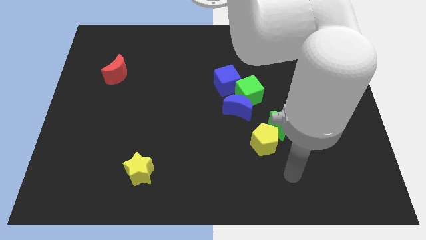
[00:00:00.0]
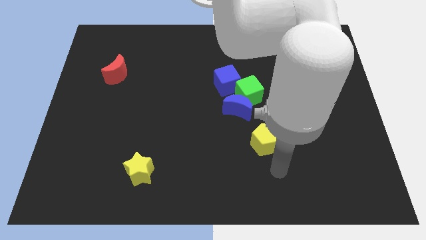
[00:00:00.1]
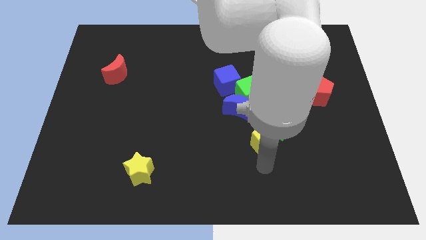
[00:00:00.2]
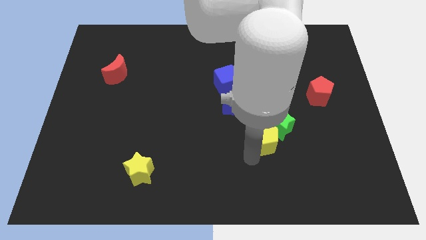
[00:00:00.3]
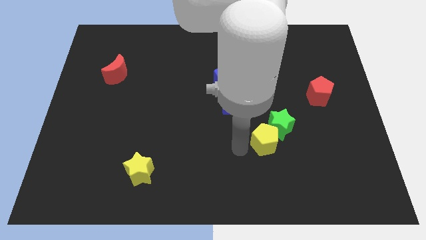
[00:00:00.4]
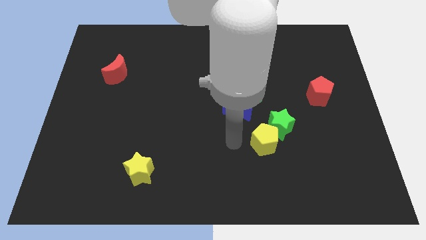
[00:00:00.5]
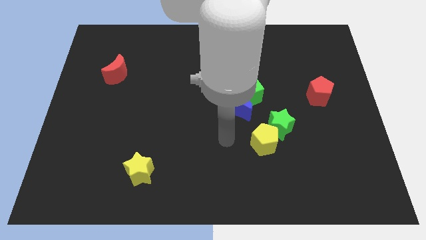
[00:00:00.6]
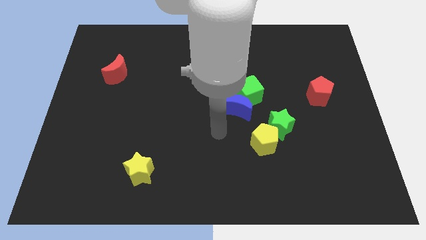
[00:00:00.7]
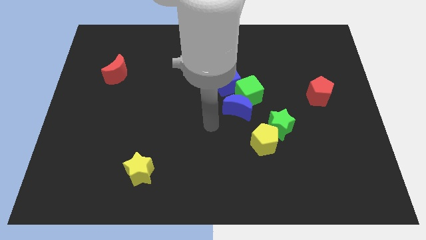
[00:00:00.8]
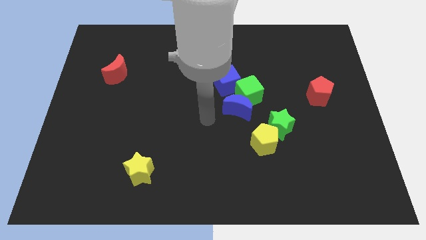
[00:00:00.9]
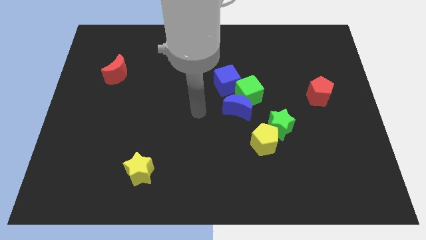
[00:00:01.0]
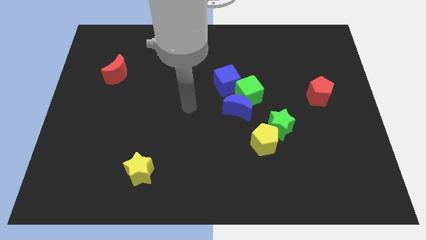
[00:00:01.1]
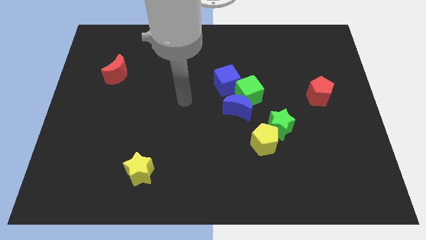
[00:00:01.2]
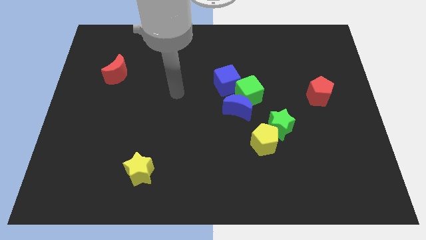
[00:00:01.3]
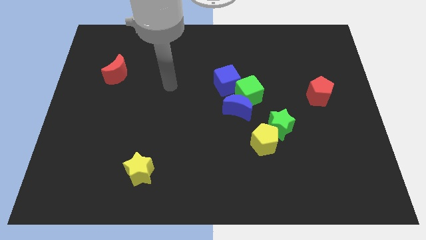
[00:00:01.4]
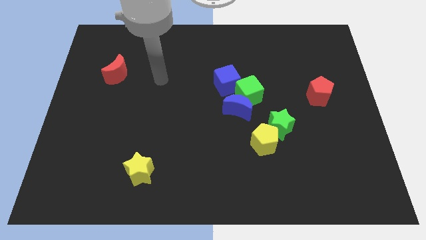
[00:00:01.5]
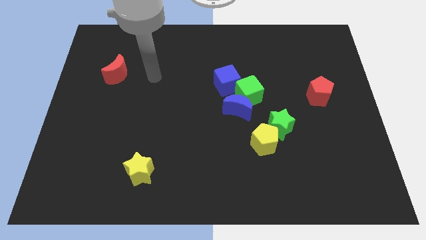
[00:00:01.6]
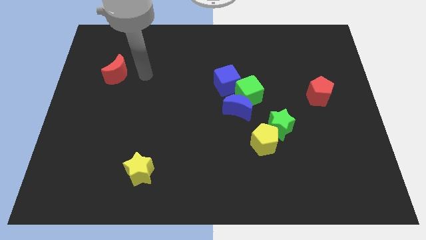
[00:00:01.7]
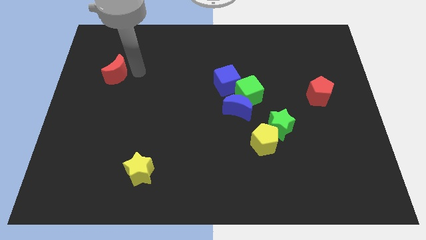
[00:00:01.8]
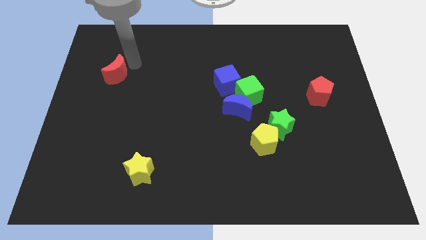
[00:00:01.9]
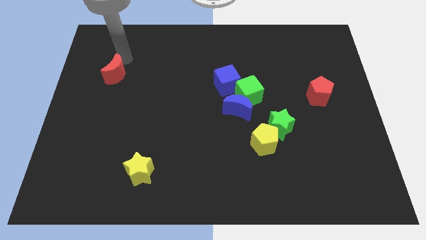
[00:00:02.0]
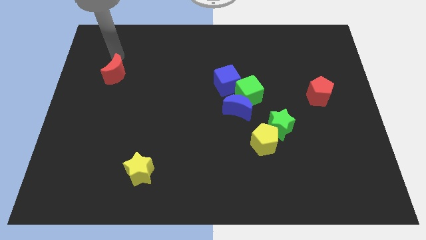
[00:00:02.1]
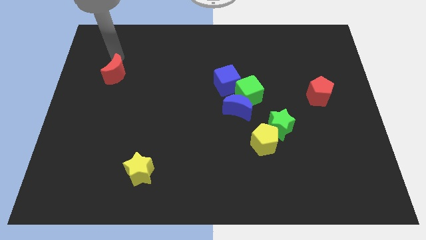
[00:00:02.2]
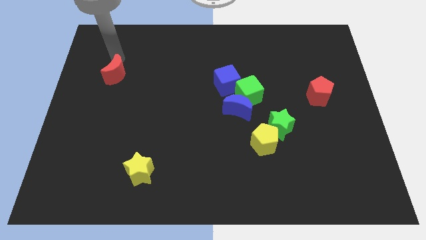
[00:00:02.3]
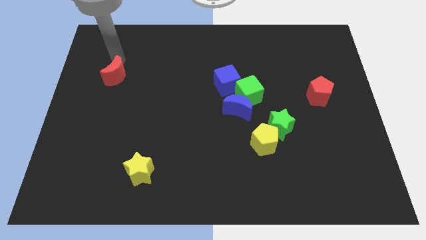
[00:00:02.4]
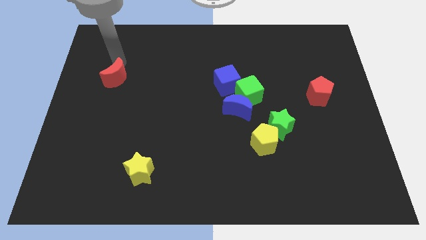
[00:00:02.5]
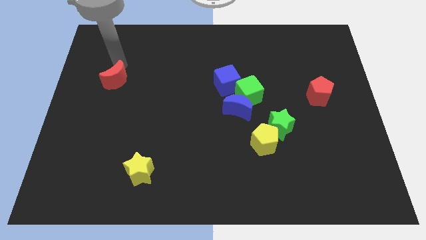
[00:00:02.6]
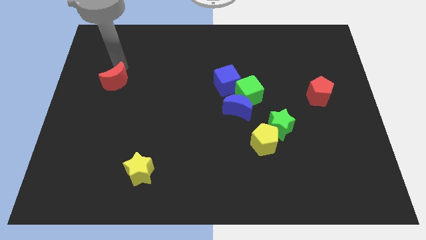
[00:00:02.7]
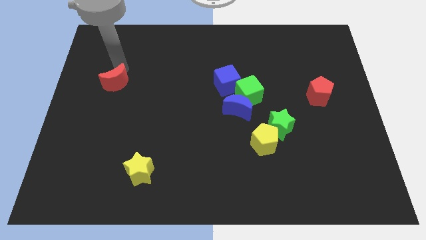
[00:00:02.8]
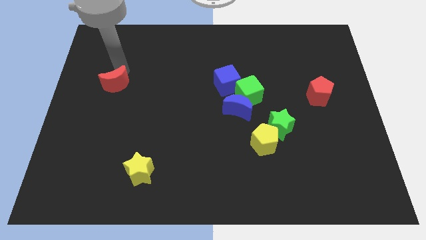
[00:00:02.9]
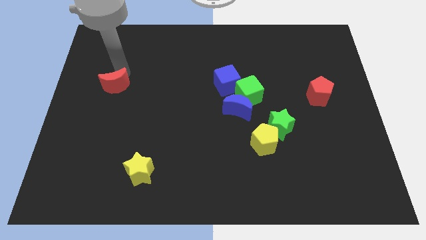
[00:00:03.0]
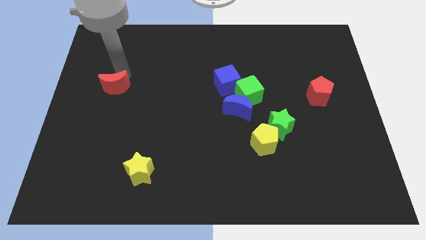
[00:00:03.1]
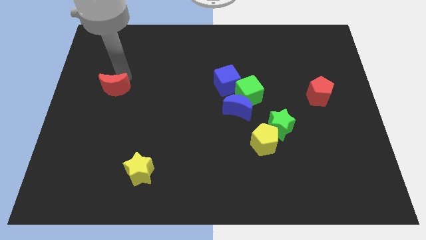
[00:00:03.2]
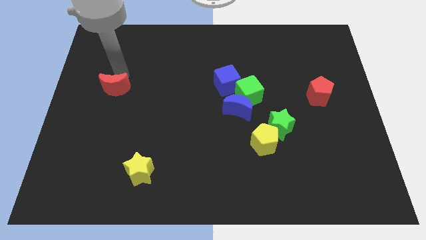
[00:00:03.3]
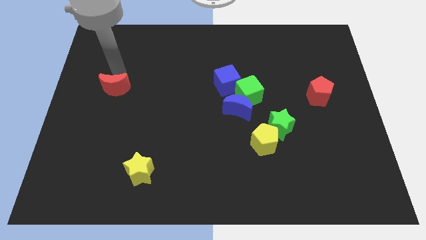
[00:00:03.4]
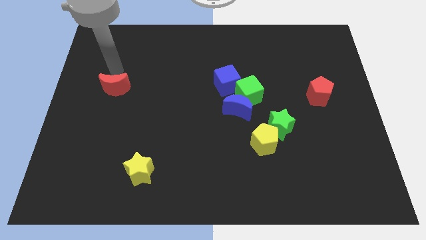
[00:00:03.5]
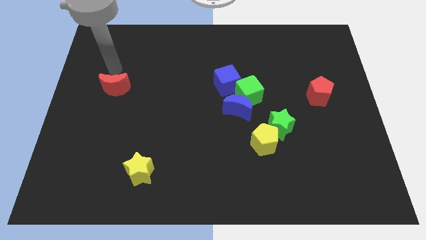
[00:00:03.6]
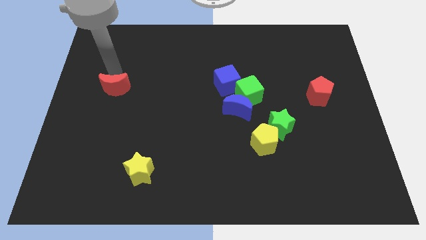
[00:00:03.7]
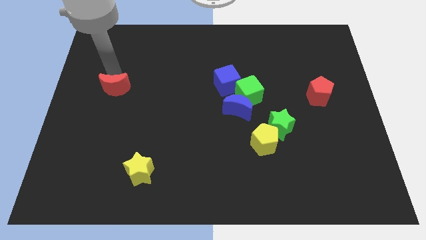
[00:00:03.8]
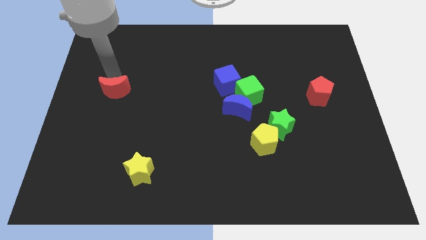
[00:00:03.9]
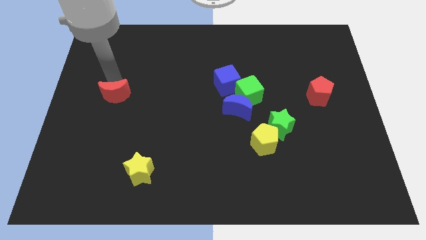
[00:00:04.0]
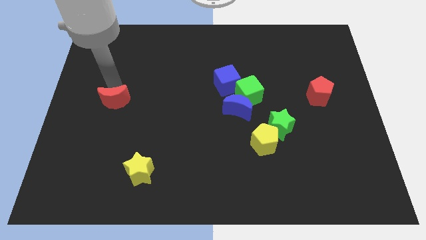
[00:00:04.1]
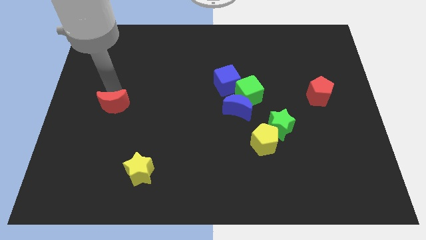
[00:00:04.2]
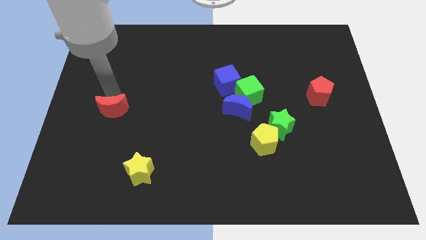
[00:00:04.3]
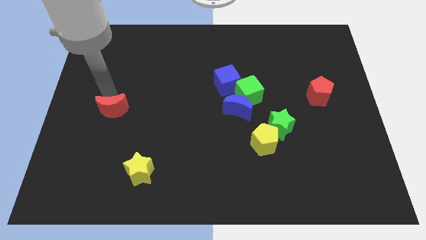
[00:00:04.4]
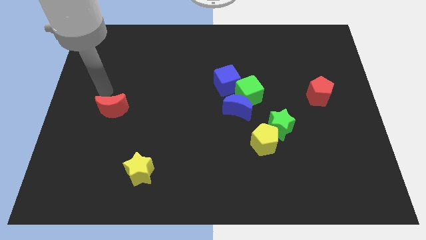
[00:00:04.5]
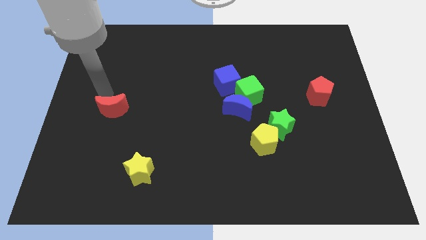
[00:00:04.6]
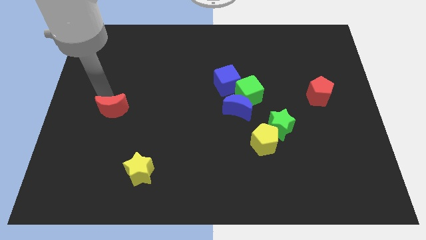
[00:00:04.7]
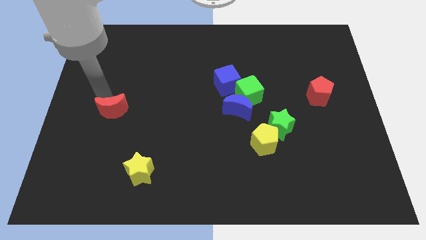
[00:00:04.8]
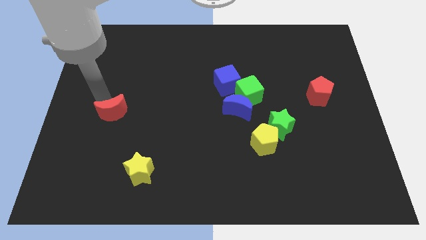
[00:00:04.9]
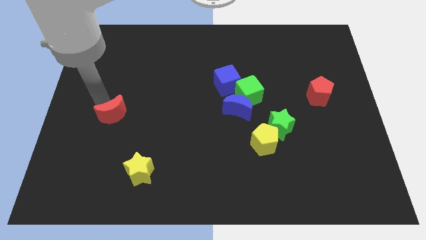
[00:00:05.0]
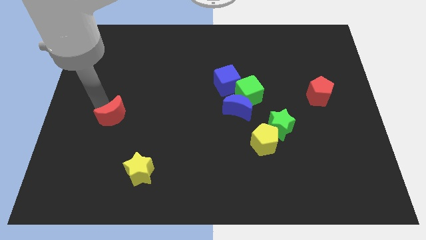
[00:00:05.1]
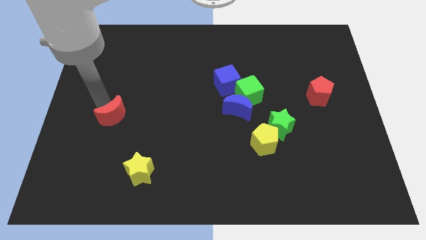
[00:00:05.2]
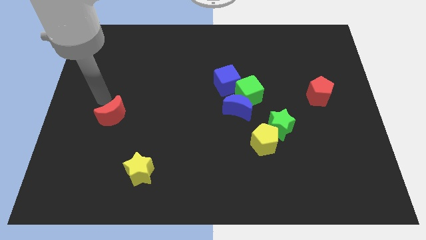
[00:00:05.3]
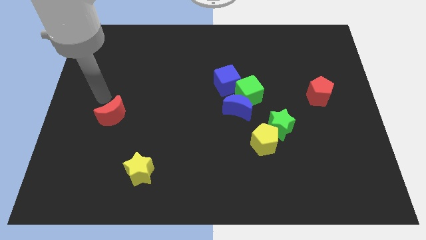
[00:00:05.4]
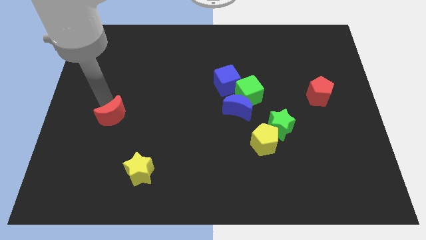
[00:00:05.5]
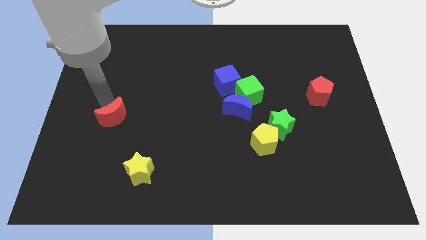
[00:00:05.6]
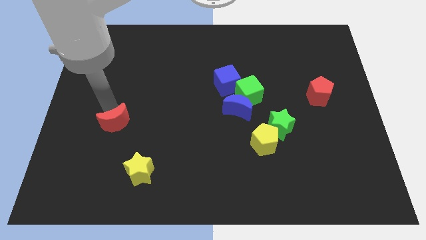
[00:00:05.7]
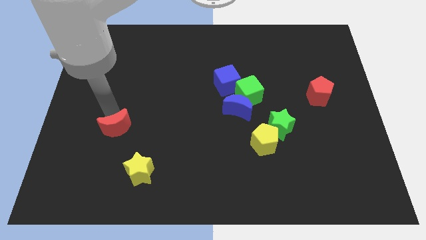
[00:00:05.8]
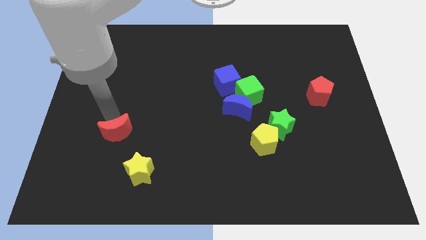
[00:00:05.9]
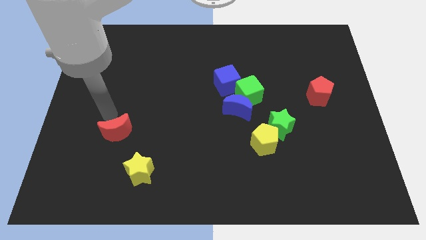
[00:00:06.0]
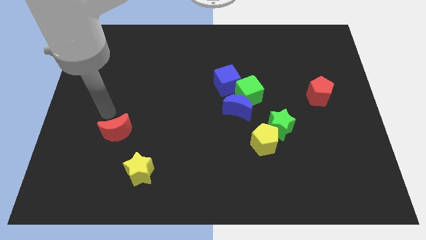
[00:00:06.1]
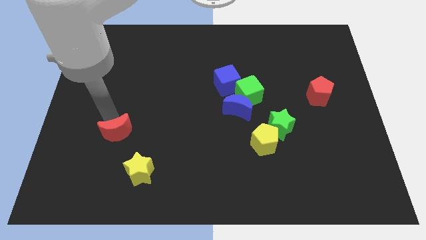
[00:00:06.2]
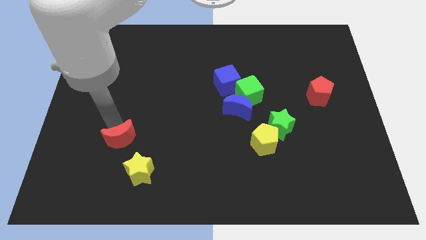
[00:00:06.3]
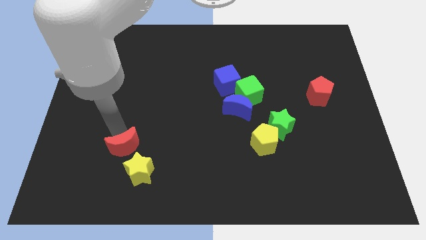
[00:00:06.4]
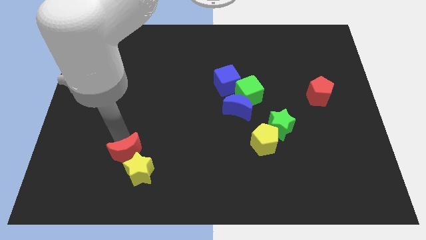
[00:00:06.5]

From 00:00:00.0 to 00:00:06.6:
slide the red moon to the yellow star
